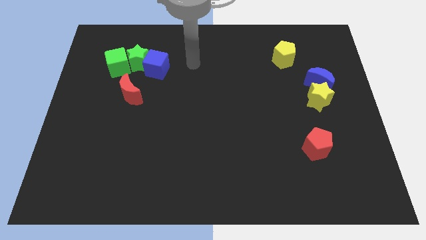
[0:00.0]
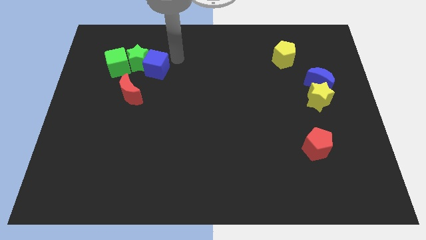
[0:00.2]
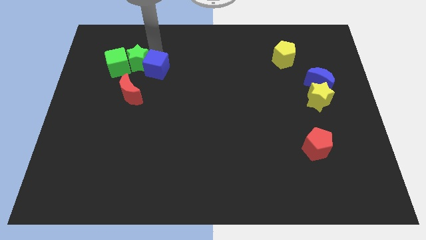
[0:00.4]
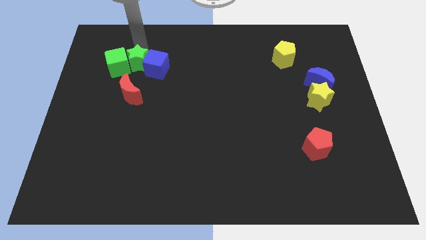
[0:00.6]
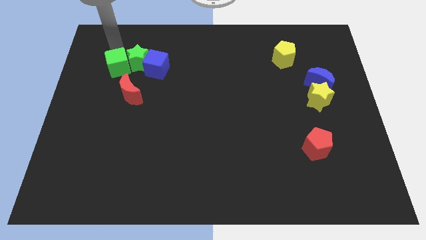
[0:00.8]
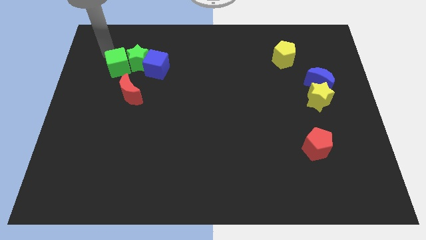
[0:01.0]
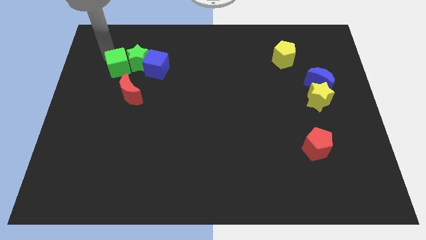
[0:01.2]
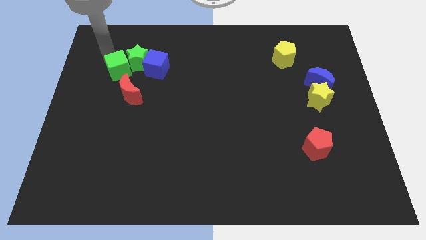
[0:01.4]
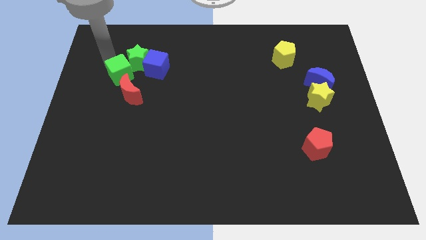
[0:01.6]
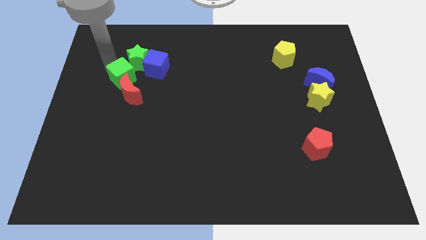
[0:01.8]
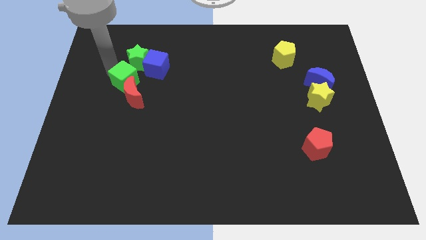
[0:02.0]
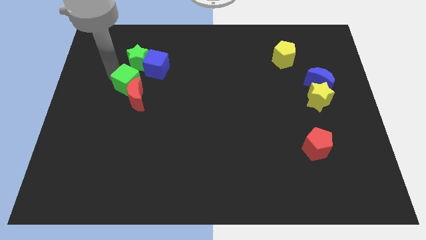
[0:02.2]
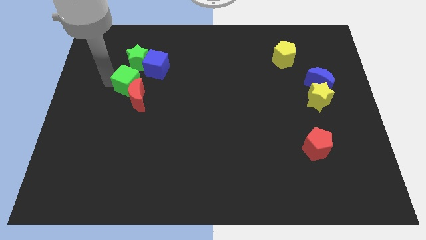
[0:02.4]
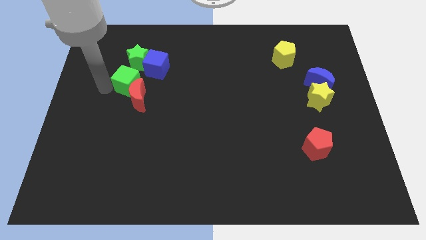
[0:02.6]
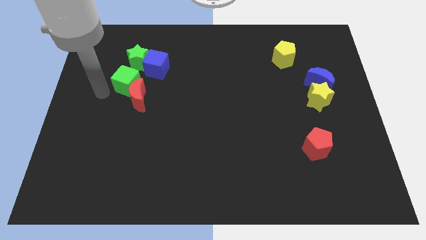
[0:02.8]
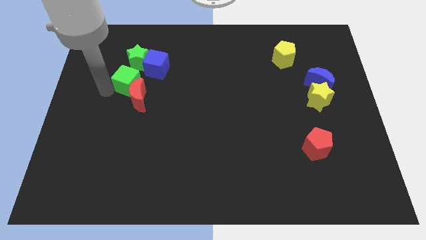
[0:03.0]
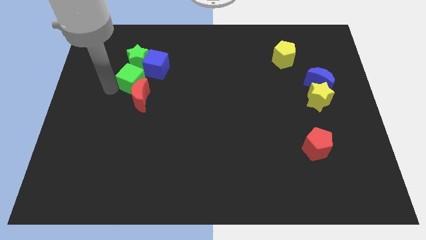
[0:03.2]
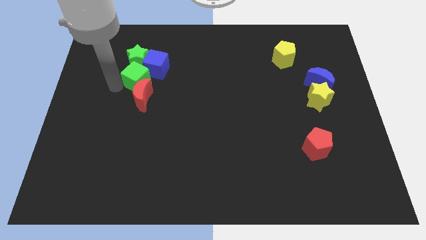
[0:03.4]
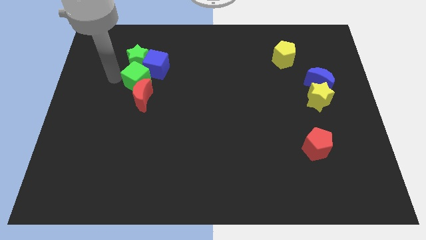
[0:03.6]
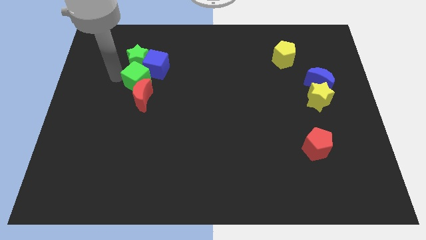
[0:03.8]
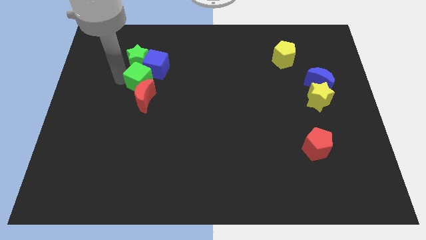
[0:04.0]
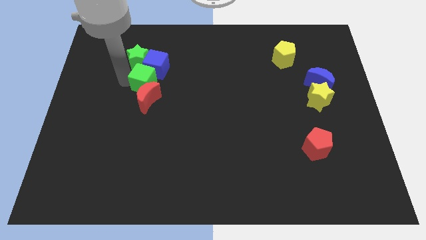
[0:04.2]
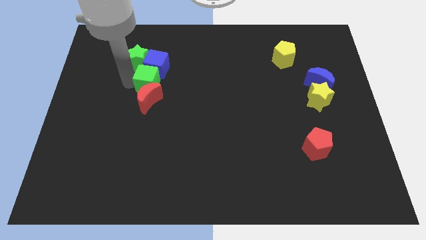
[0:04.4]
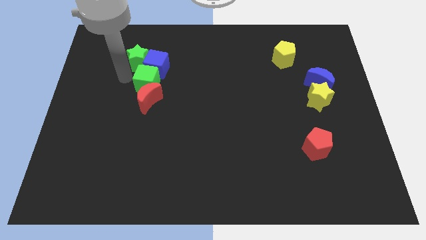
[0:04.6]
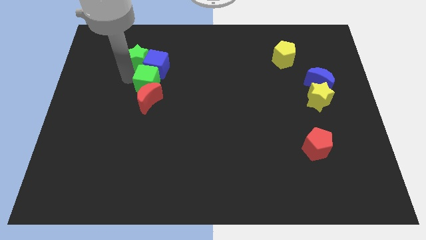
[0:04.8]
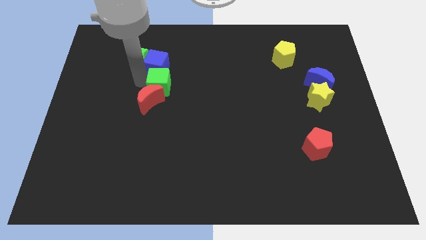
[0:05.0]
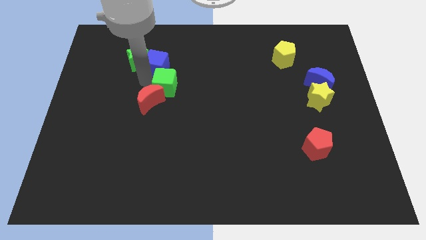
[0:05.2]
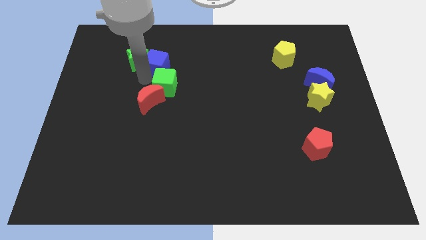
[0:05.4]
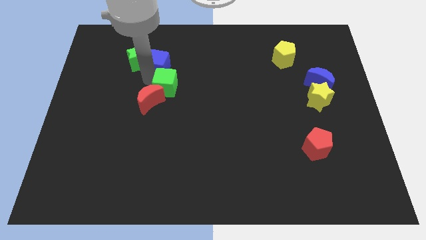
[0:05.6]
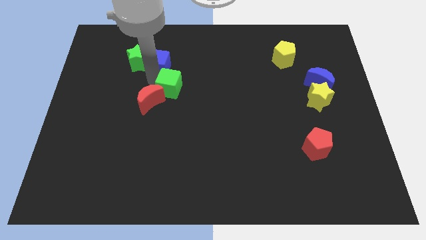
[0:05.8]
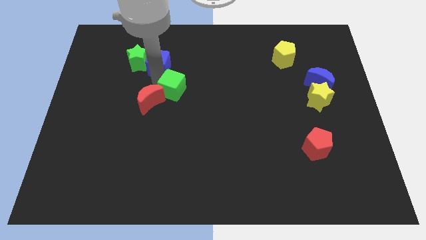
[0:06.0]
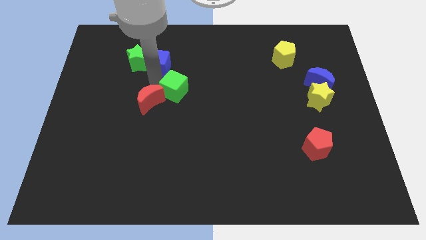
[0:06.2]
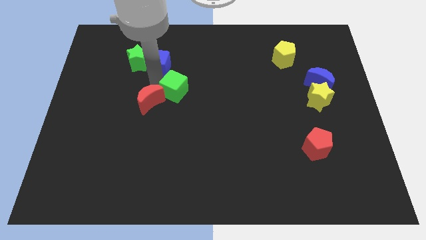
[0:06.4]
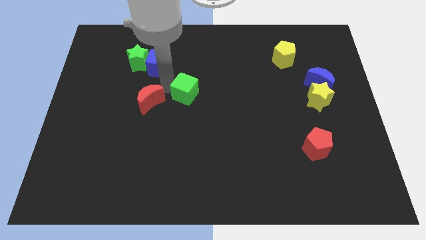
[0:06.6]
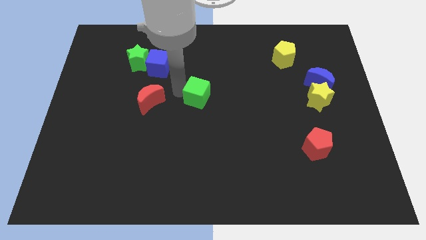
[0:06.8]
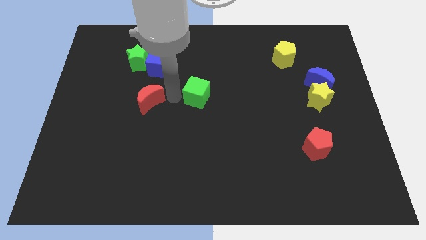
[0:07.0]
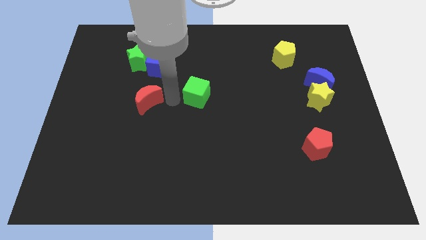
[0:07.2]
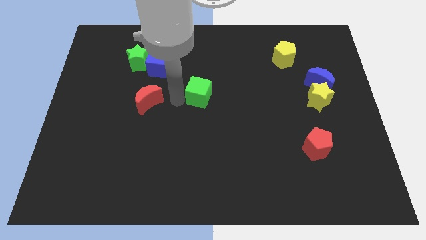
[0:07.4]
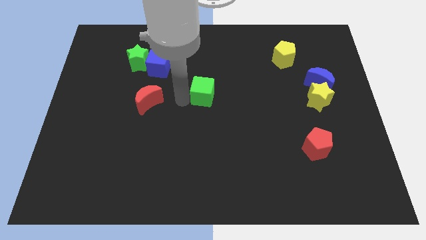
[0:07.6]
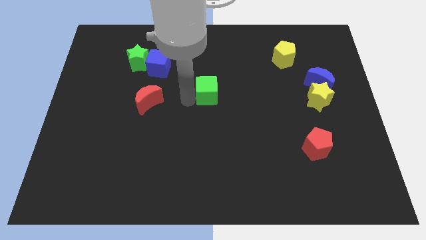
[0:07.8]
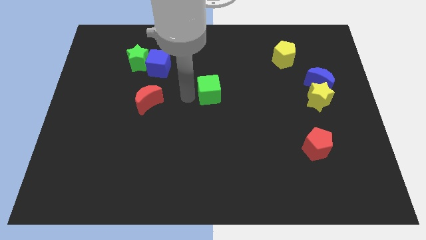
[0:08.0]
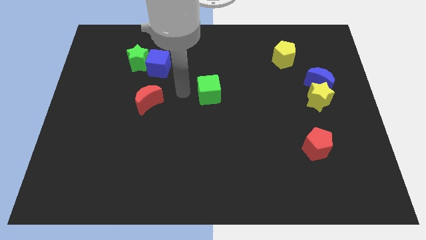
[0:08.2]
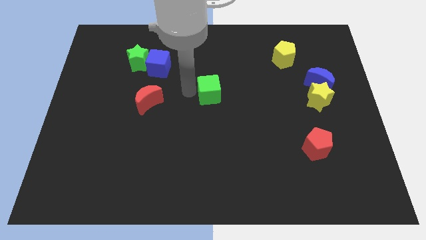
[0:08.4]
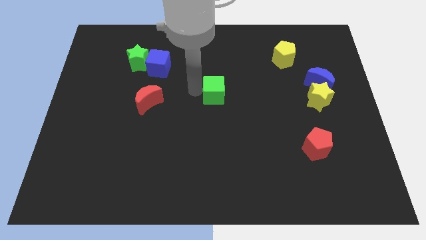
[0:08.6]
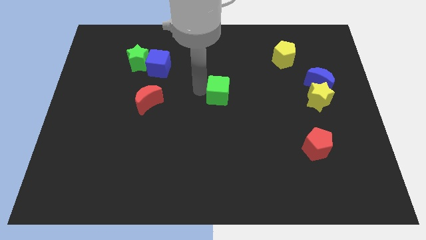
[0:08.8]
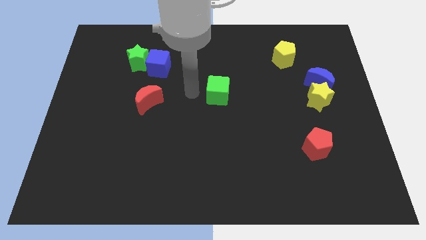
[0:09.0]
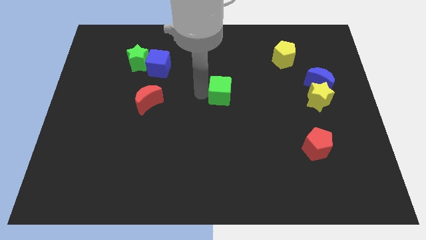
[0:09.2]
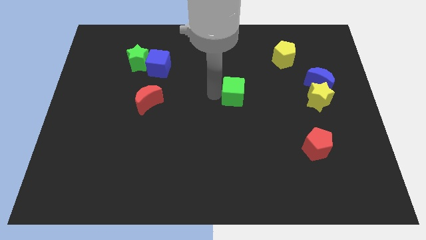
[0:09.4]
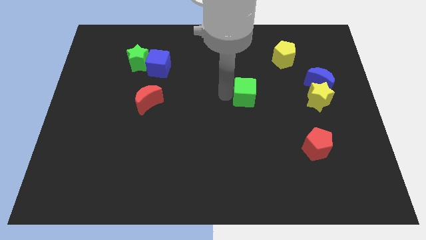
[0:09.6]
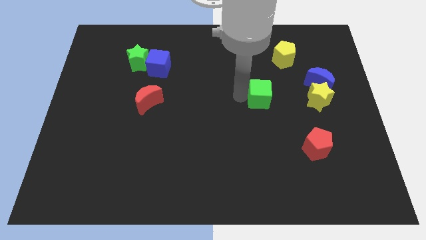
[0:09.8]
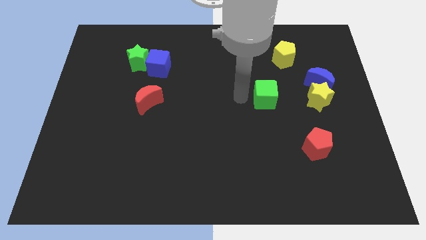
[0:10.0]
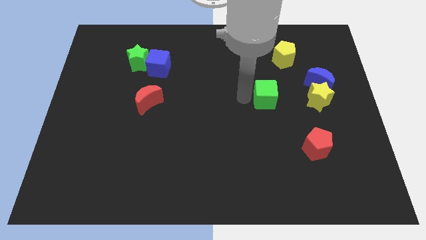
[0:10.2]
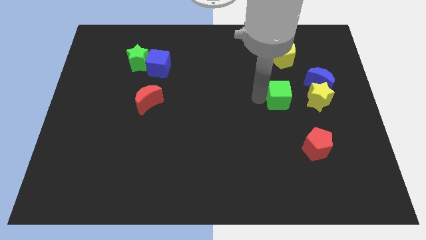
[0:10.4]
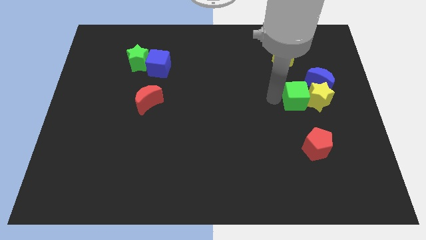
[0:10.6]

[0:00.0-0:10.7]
move the green cube close to the yellow star

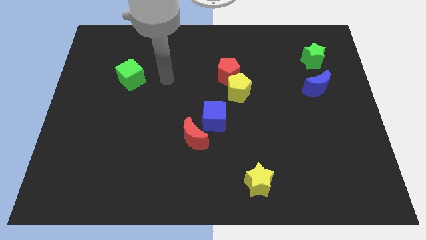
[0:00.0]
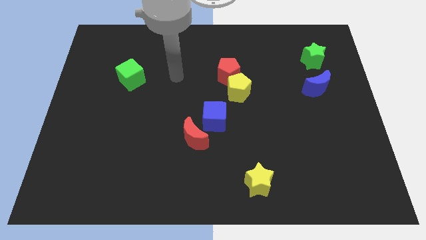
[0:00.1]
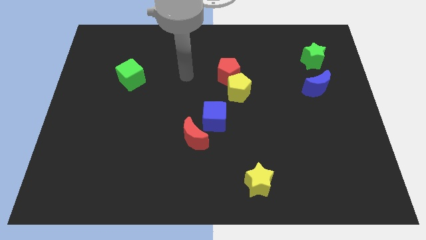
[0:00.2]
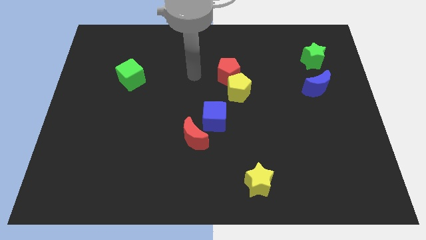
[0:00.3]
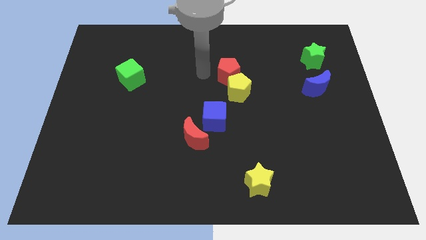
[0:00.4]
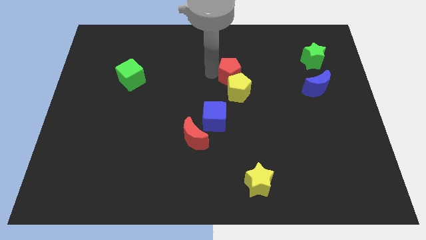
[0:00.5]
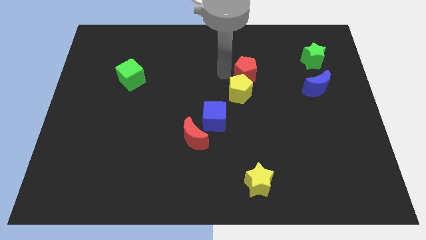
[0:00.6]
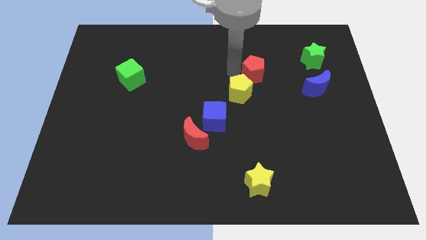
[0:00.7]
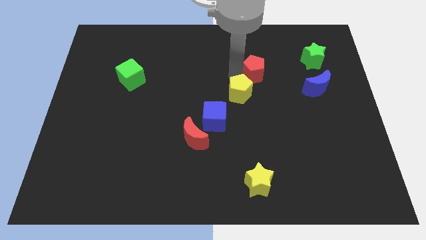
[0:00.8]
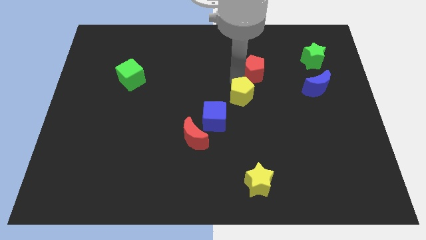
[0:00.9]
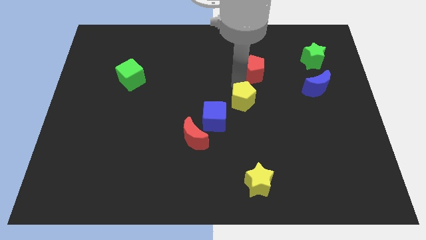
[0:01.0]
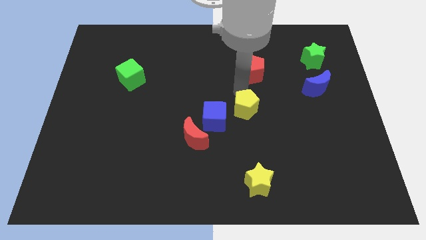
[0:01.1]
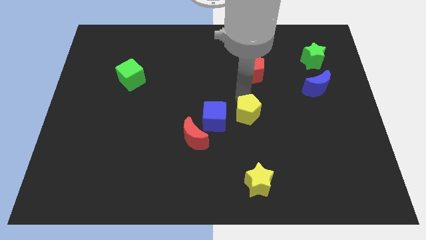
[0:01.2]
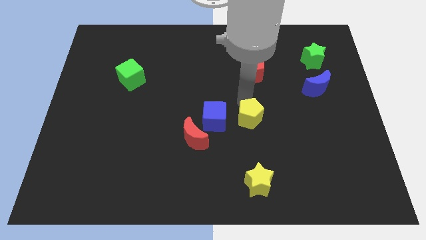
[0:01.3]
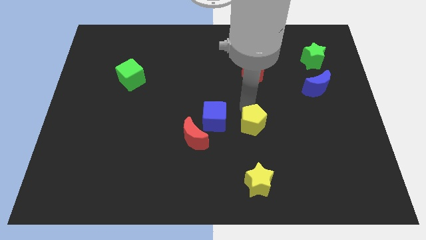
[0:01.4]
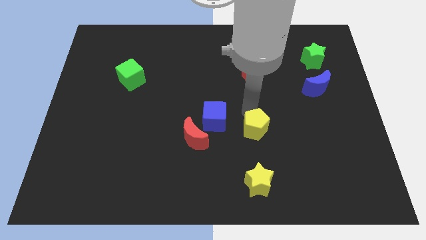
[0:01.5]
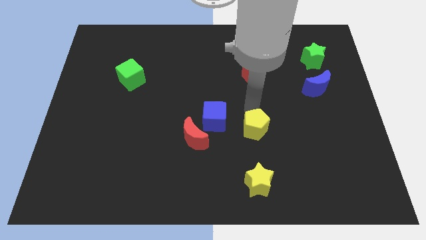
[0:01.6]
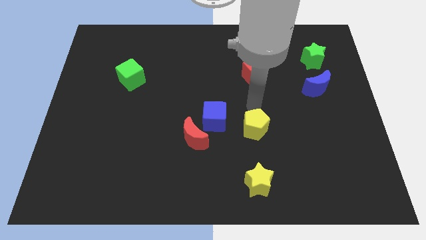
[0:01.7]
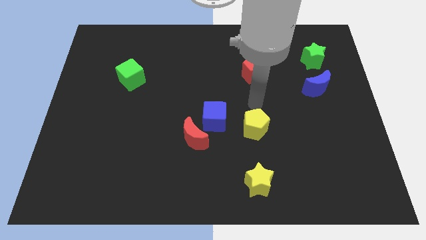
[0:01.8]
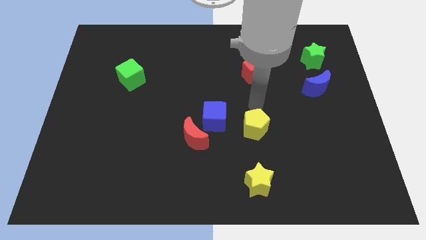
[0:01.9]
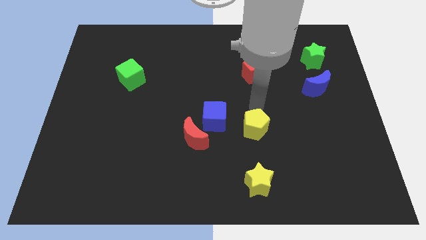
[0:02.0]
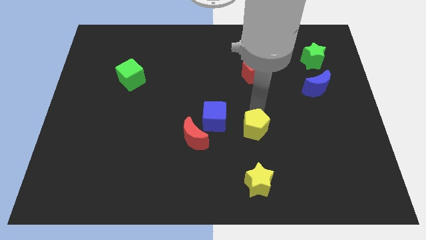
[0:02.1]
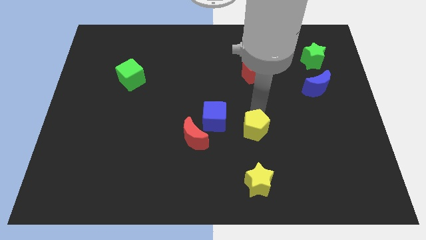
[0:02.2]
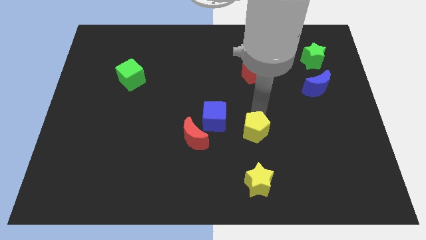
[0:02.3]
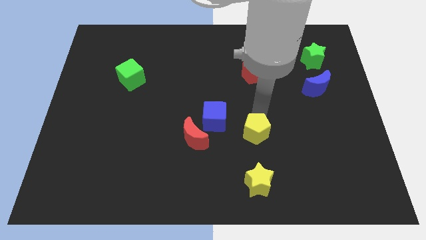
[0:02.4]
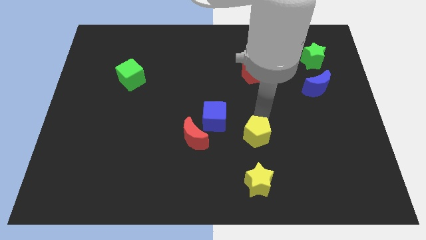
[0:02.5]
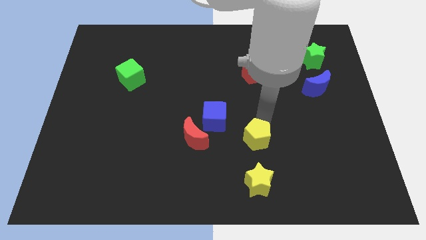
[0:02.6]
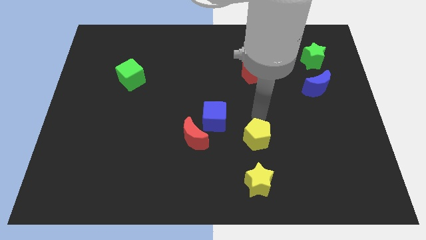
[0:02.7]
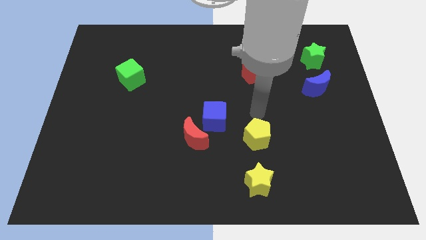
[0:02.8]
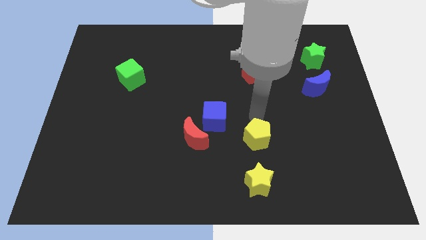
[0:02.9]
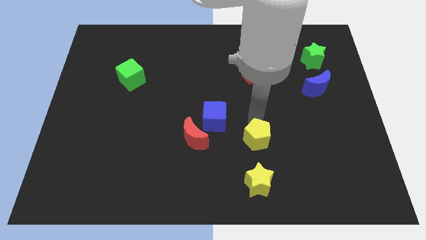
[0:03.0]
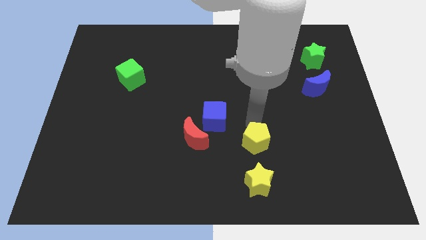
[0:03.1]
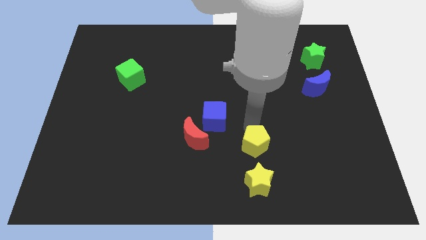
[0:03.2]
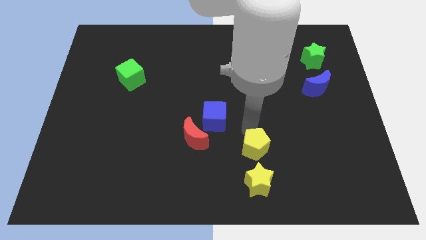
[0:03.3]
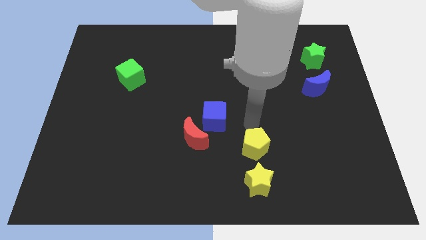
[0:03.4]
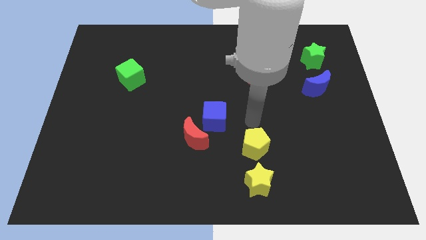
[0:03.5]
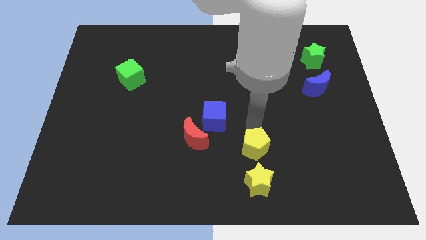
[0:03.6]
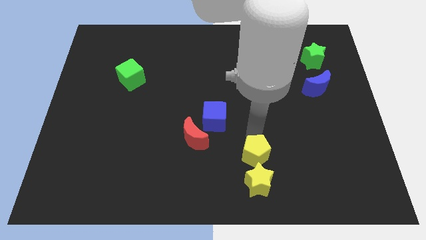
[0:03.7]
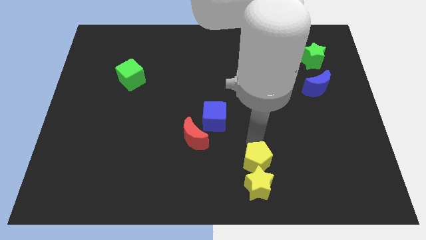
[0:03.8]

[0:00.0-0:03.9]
move the yellow pentagon next to the yellow star
